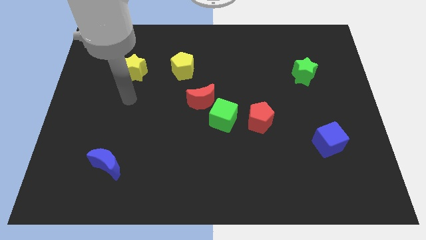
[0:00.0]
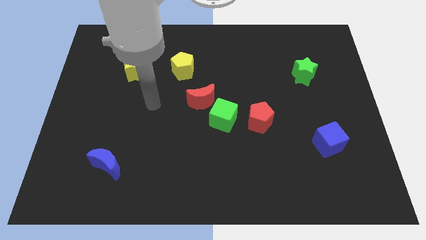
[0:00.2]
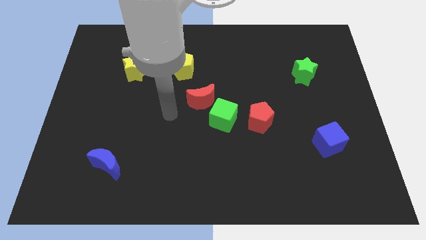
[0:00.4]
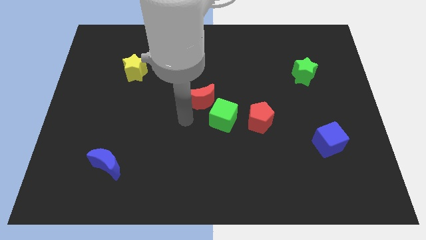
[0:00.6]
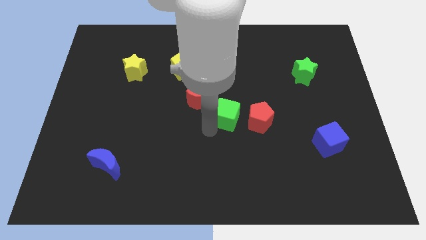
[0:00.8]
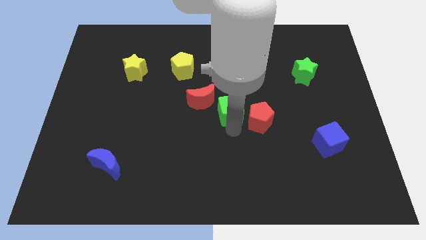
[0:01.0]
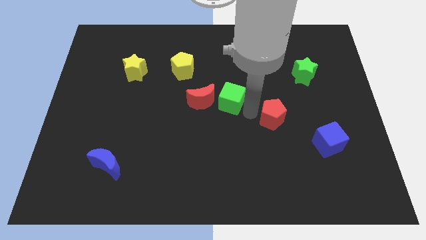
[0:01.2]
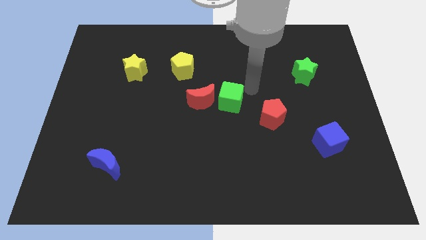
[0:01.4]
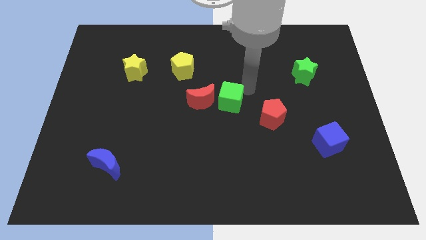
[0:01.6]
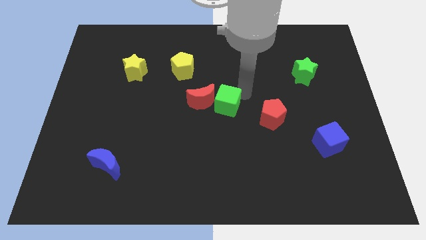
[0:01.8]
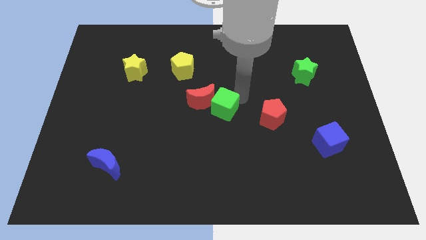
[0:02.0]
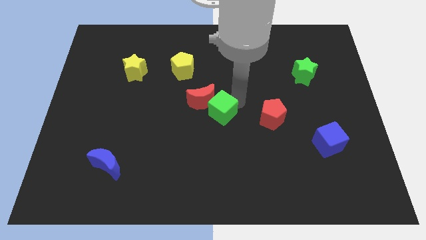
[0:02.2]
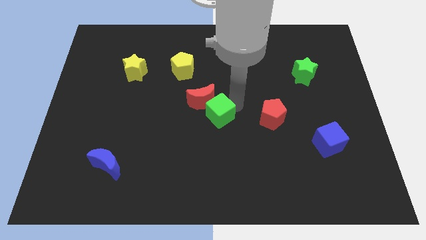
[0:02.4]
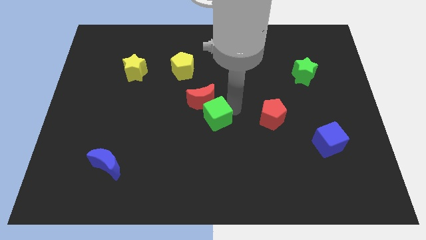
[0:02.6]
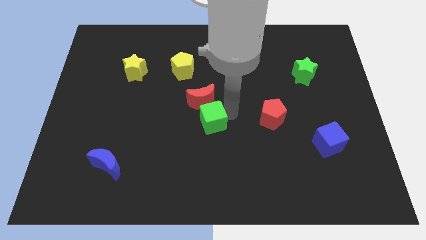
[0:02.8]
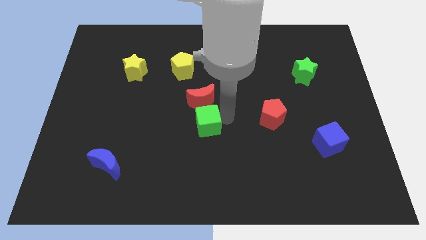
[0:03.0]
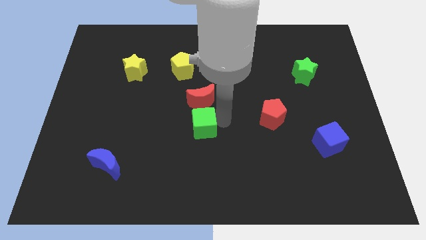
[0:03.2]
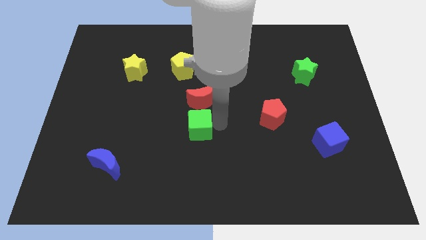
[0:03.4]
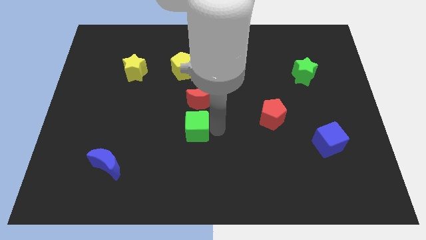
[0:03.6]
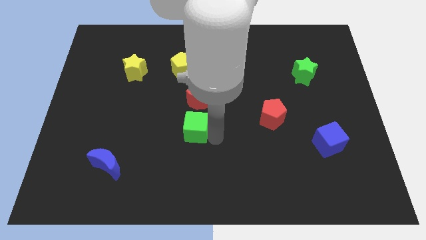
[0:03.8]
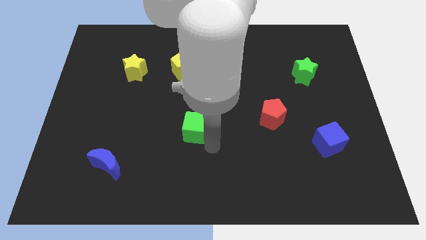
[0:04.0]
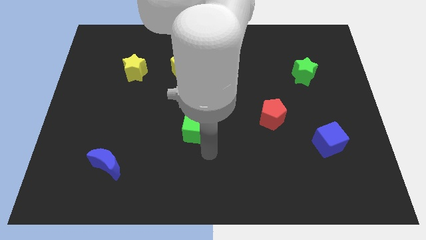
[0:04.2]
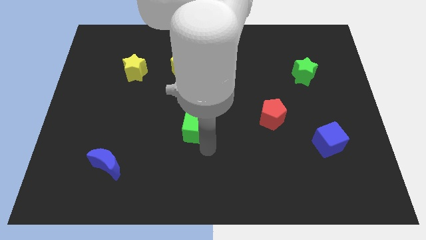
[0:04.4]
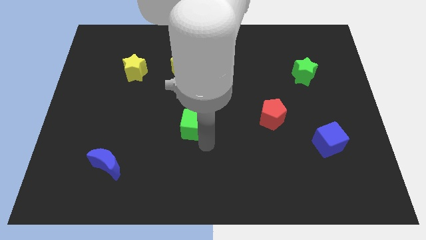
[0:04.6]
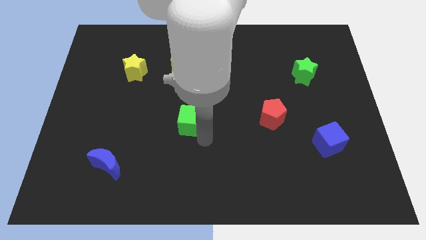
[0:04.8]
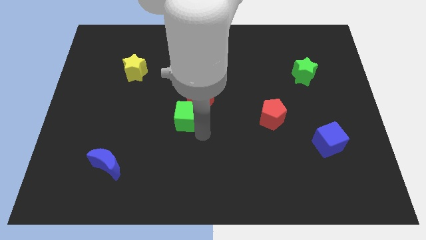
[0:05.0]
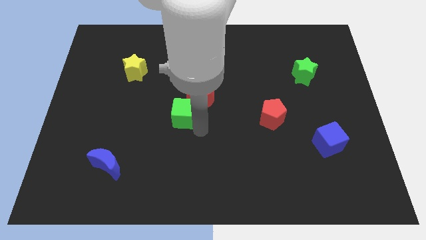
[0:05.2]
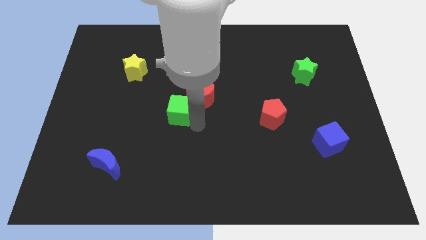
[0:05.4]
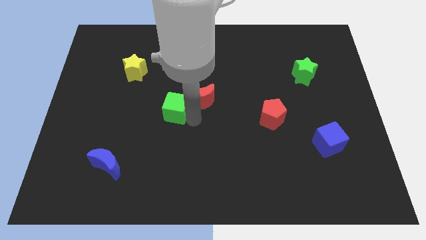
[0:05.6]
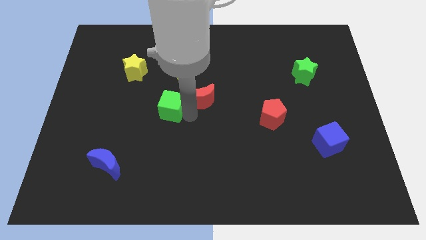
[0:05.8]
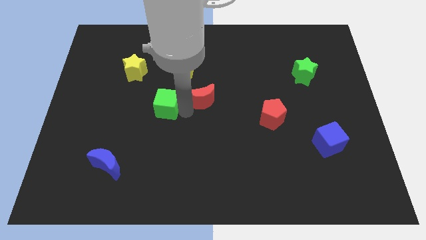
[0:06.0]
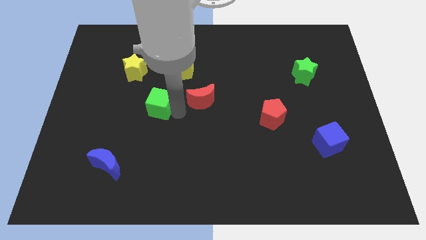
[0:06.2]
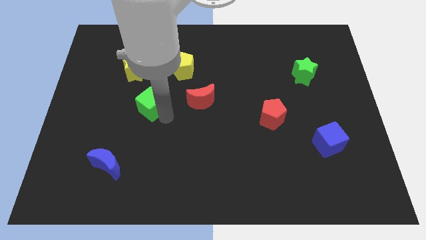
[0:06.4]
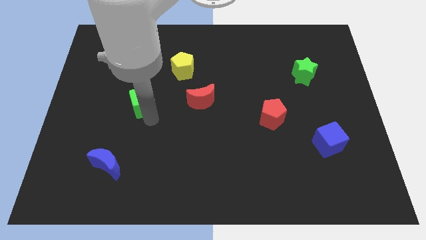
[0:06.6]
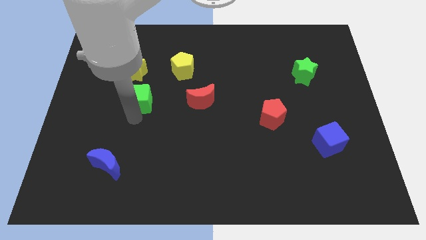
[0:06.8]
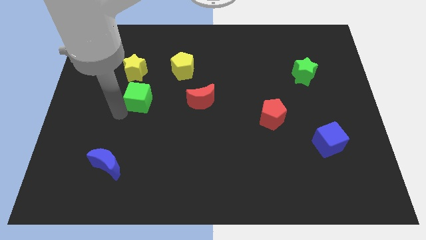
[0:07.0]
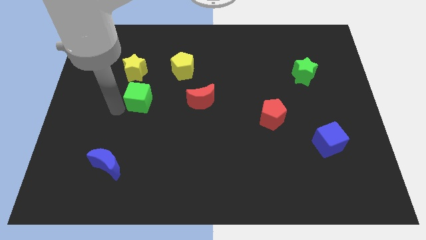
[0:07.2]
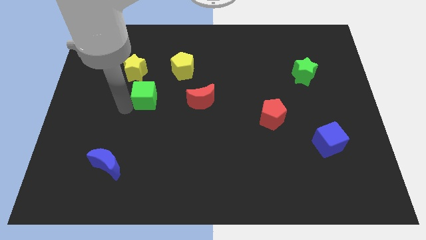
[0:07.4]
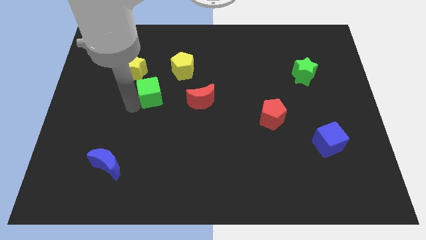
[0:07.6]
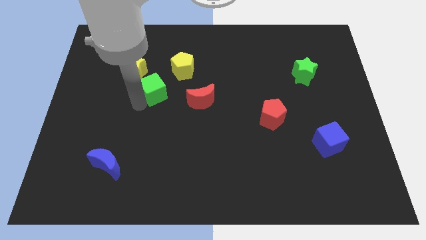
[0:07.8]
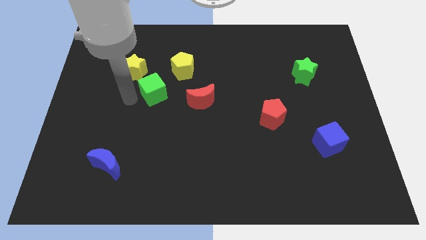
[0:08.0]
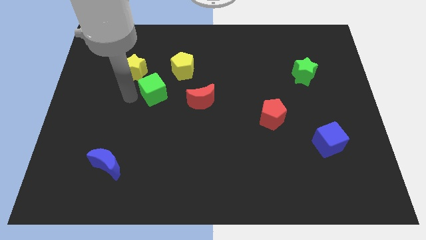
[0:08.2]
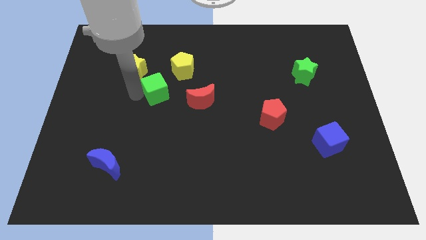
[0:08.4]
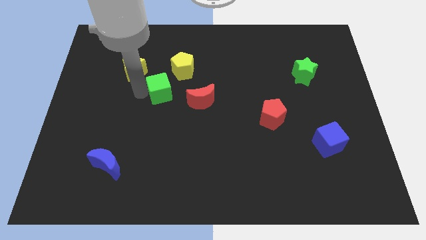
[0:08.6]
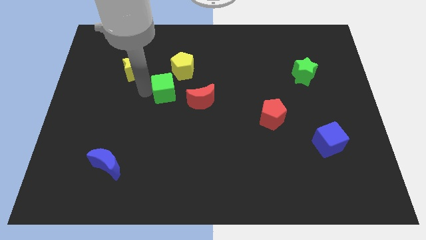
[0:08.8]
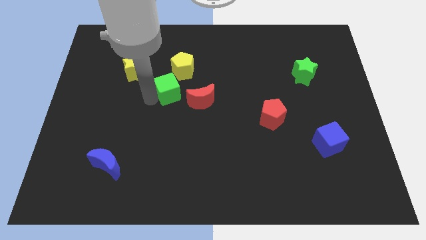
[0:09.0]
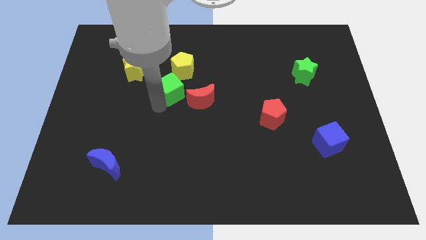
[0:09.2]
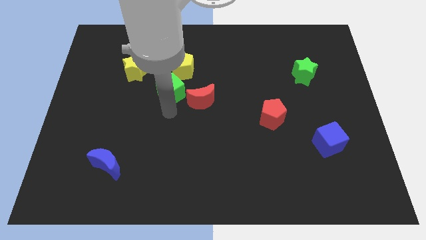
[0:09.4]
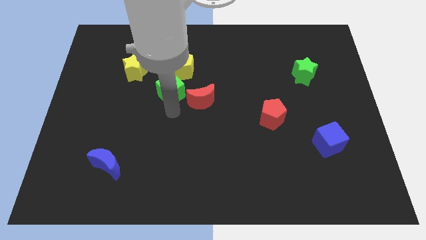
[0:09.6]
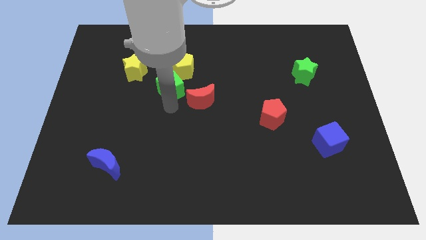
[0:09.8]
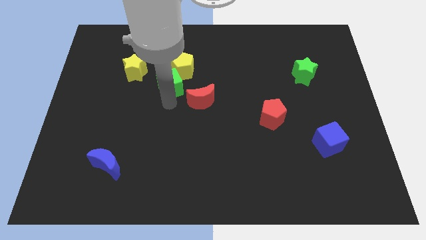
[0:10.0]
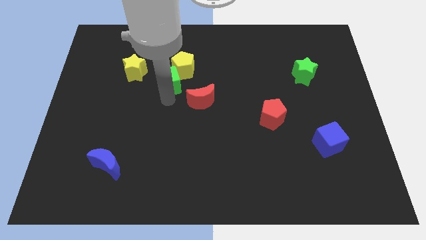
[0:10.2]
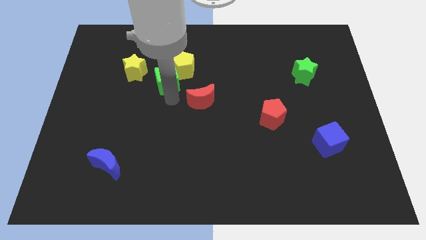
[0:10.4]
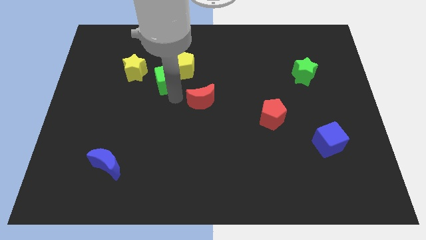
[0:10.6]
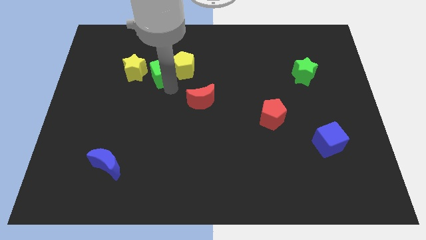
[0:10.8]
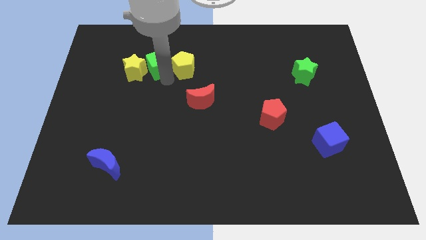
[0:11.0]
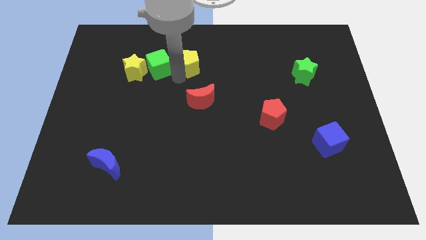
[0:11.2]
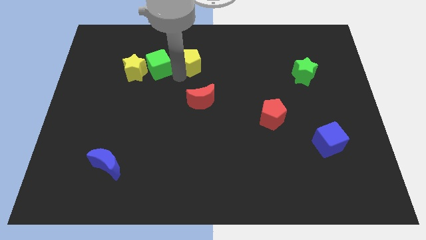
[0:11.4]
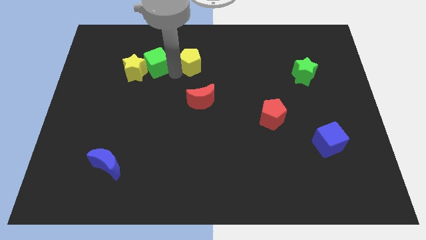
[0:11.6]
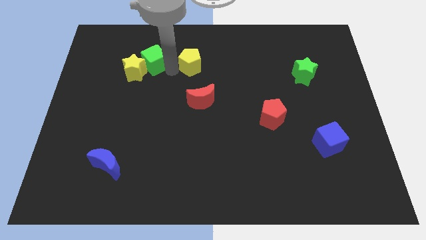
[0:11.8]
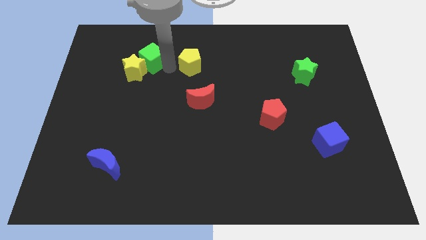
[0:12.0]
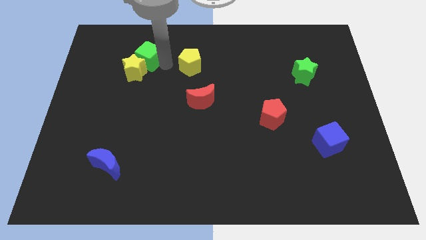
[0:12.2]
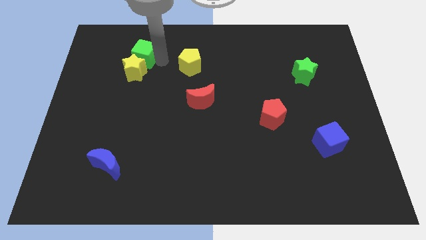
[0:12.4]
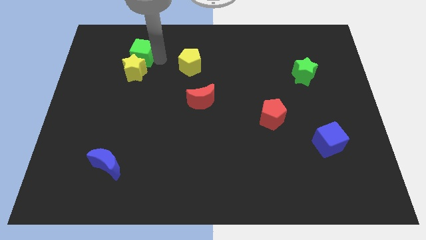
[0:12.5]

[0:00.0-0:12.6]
slide the green cube diagonally up and to the left of the yellow star

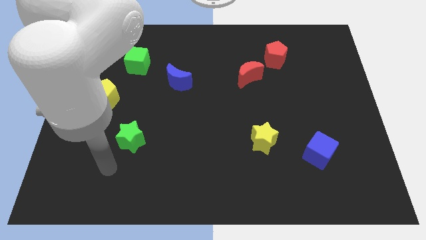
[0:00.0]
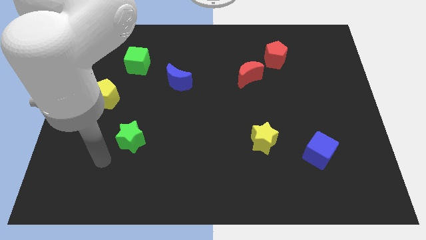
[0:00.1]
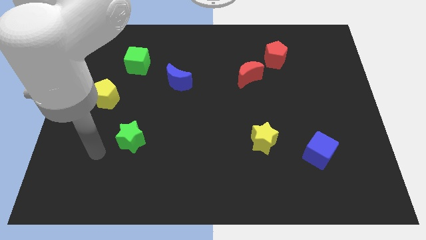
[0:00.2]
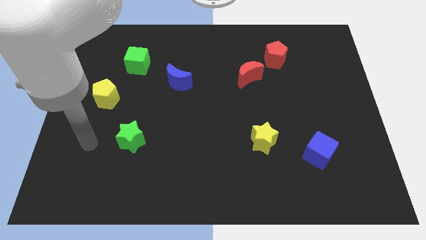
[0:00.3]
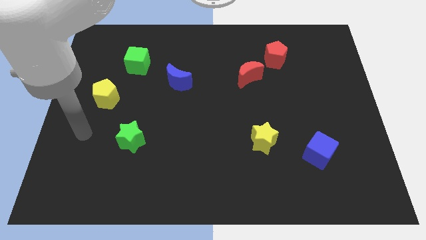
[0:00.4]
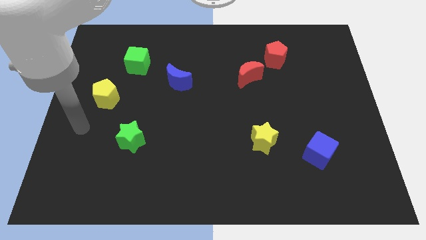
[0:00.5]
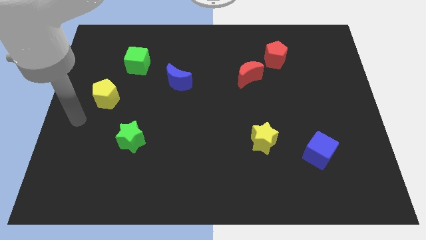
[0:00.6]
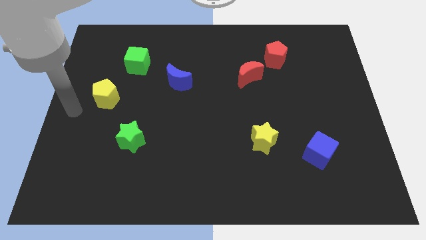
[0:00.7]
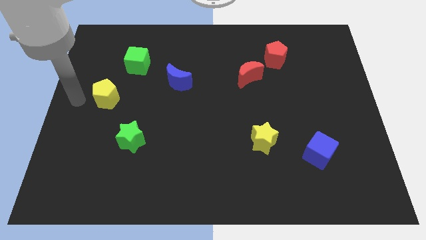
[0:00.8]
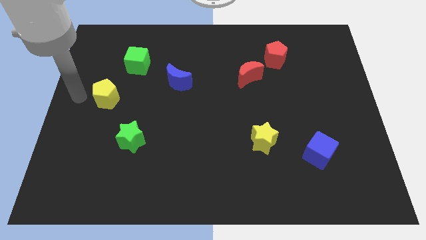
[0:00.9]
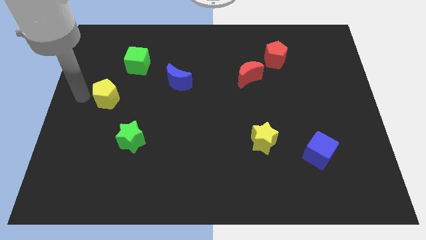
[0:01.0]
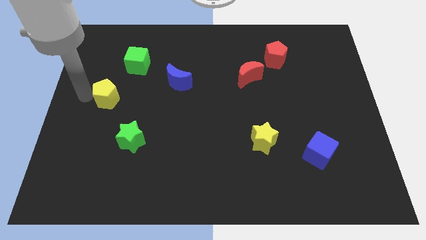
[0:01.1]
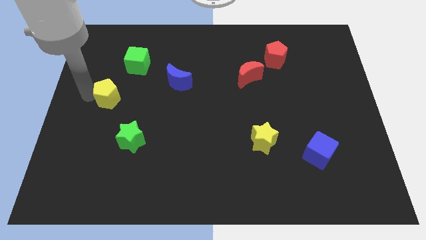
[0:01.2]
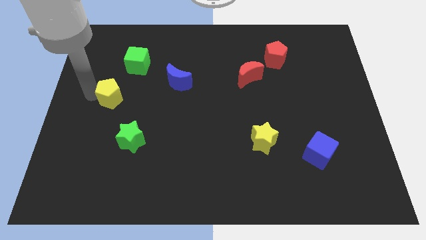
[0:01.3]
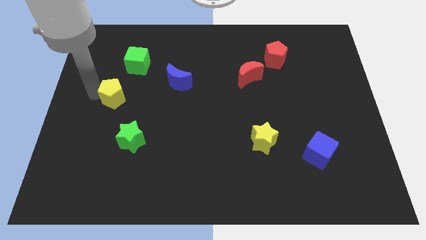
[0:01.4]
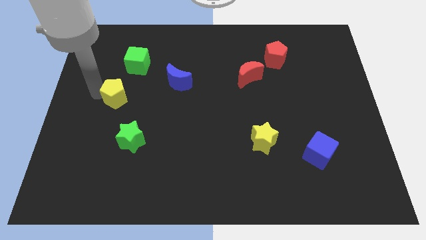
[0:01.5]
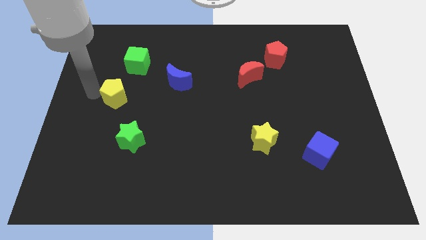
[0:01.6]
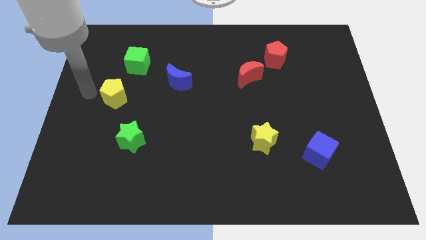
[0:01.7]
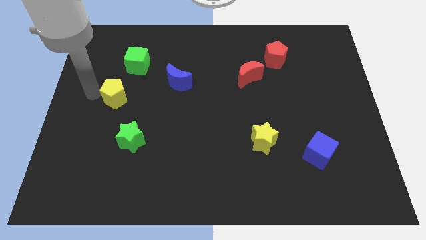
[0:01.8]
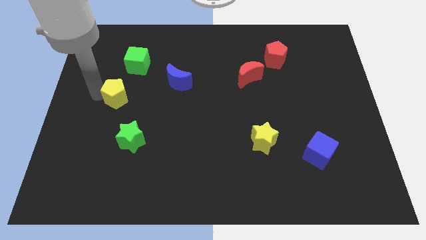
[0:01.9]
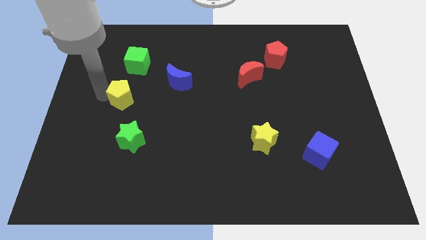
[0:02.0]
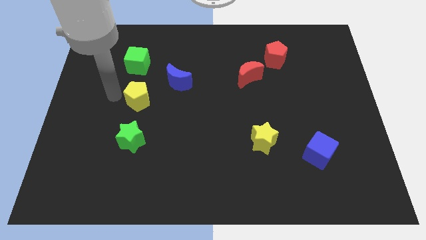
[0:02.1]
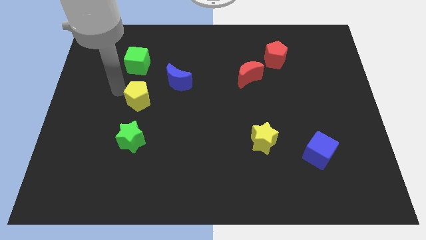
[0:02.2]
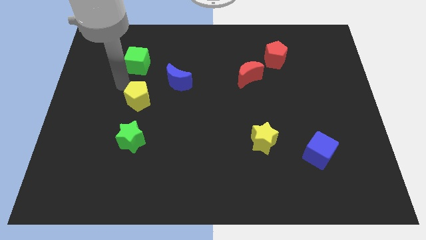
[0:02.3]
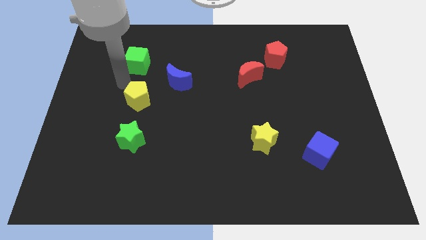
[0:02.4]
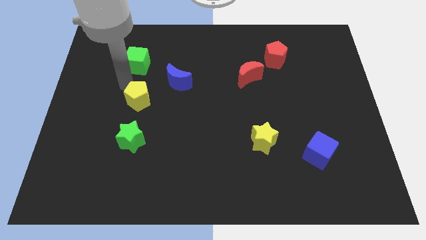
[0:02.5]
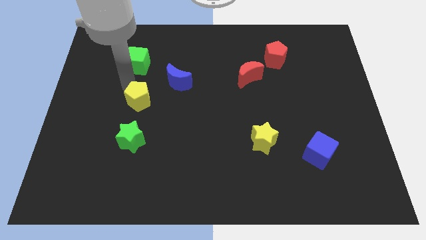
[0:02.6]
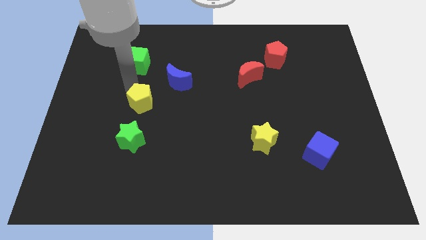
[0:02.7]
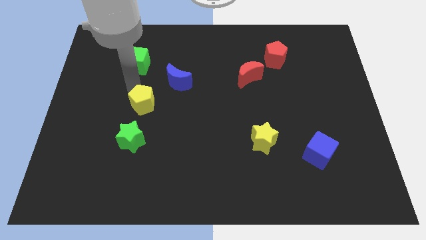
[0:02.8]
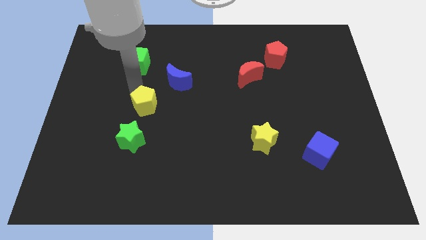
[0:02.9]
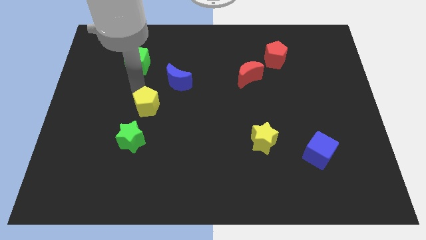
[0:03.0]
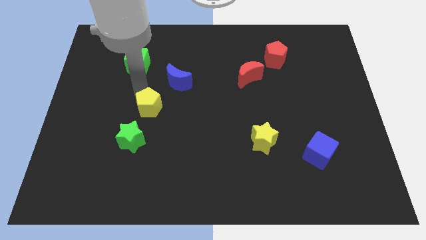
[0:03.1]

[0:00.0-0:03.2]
push the yellow pentagon diagonally up and to the right of the green star
